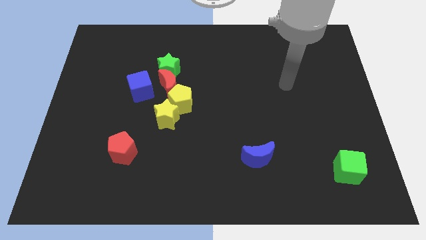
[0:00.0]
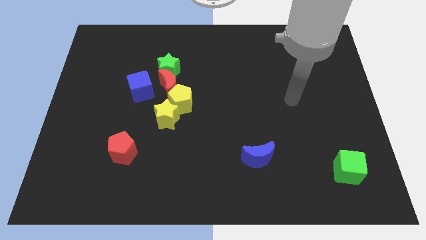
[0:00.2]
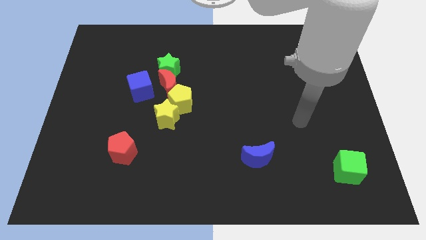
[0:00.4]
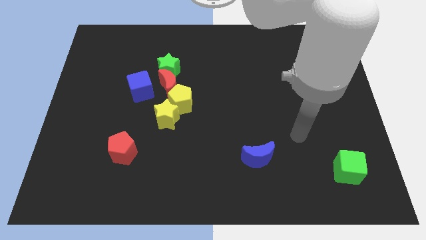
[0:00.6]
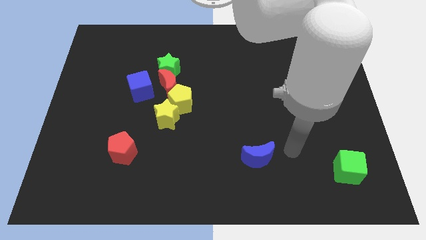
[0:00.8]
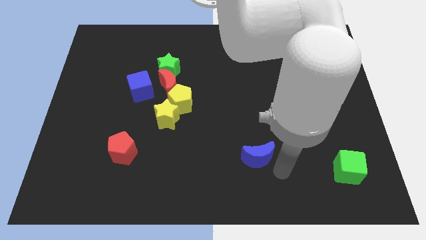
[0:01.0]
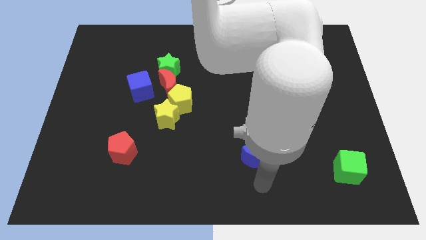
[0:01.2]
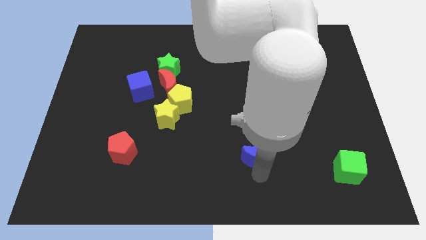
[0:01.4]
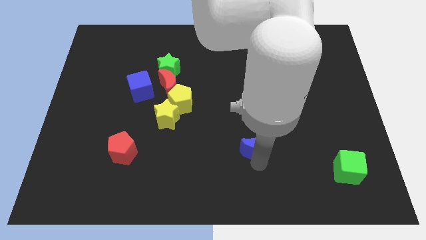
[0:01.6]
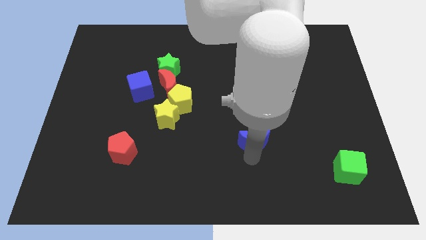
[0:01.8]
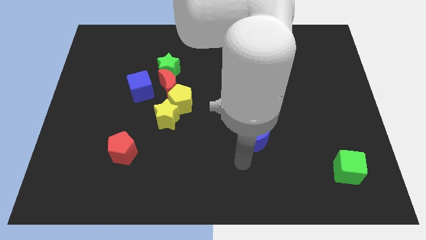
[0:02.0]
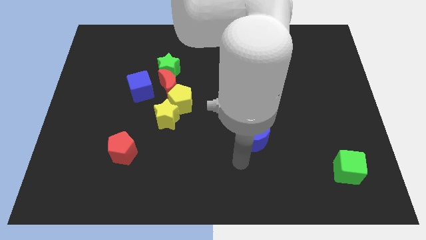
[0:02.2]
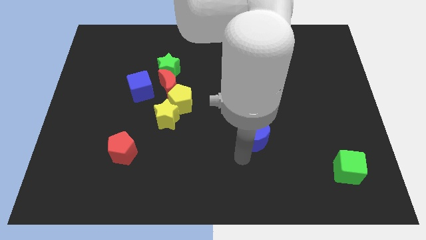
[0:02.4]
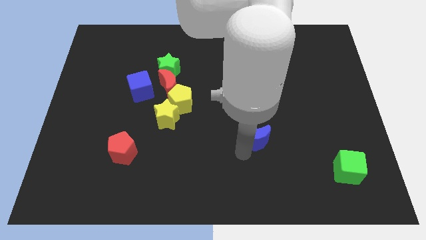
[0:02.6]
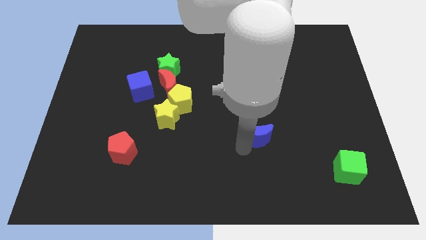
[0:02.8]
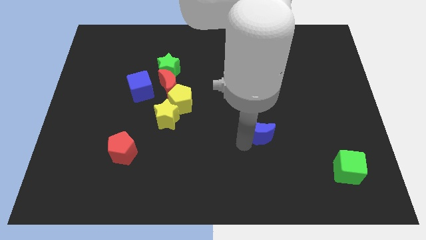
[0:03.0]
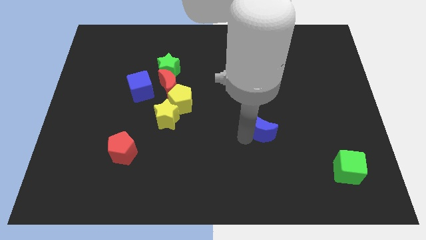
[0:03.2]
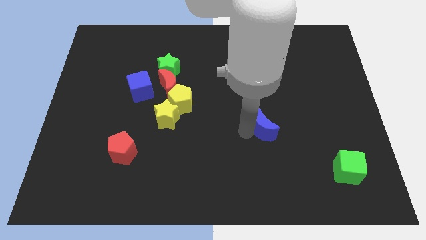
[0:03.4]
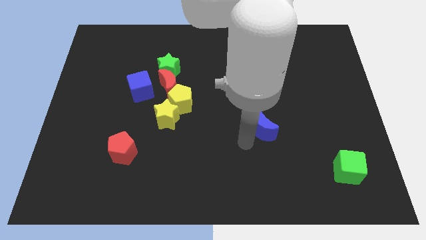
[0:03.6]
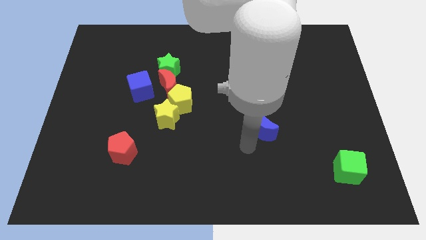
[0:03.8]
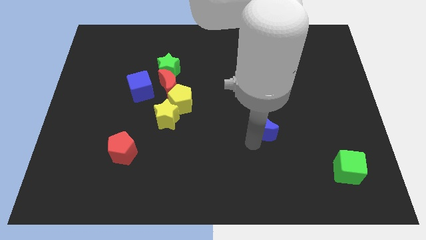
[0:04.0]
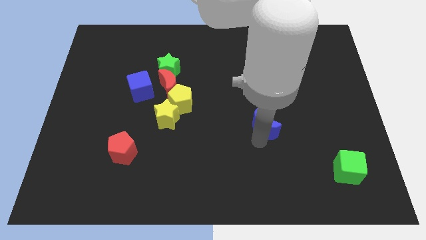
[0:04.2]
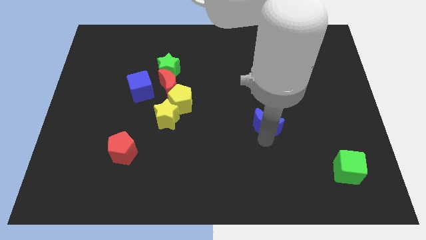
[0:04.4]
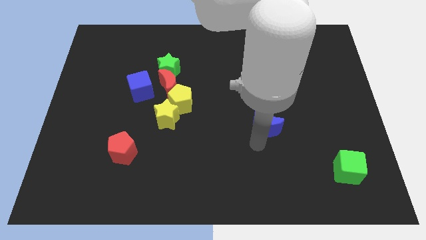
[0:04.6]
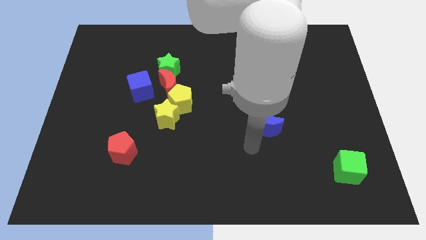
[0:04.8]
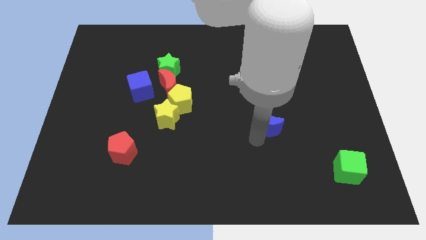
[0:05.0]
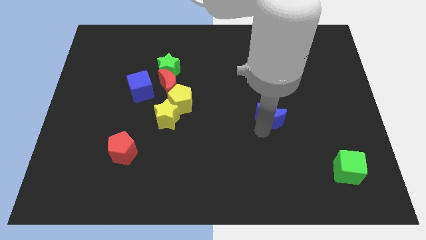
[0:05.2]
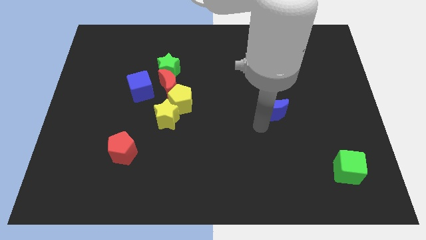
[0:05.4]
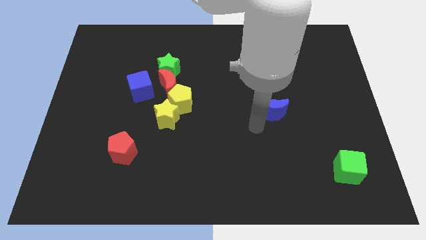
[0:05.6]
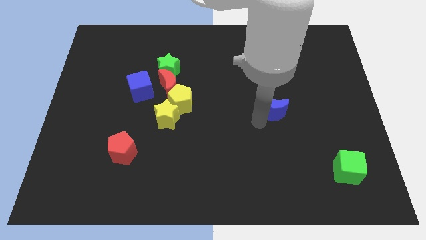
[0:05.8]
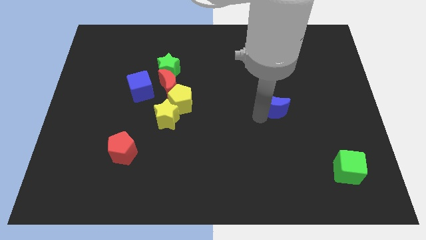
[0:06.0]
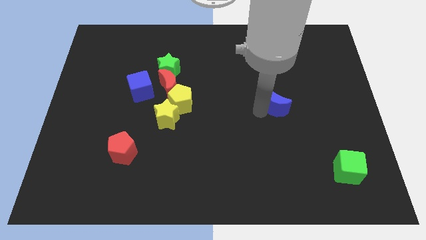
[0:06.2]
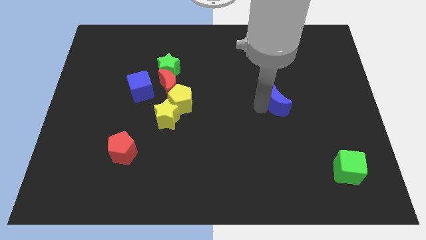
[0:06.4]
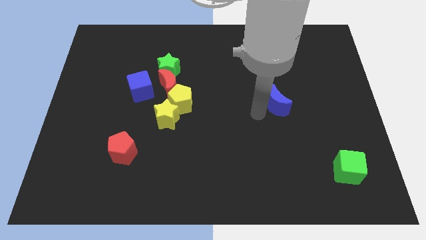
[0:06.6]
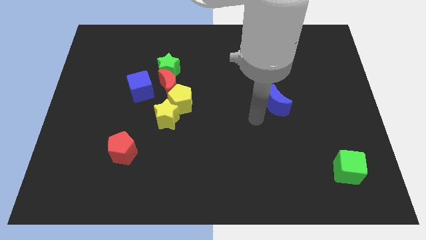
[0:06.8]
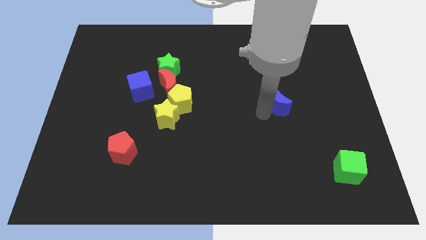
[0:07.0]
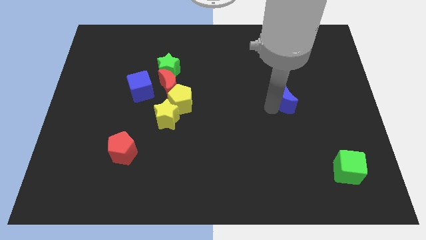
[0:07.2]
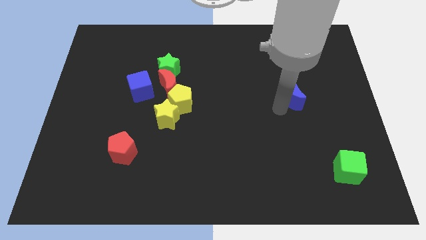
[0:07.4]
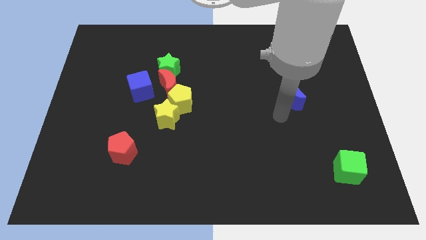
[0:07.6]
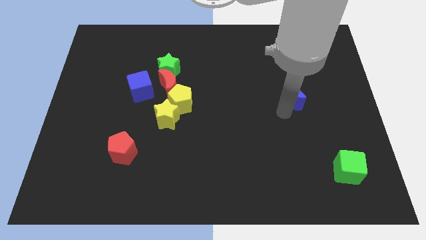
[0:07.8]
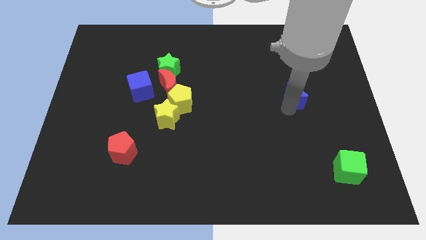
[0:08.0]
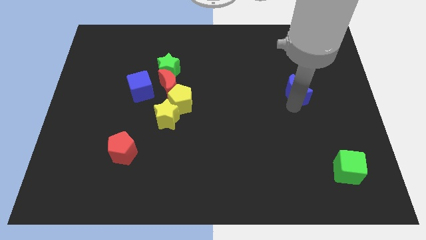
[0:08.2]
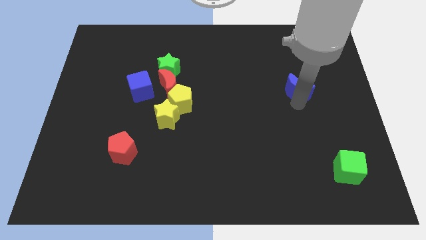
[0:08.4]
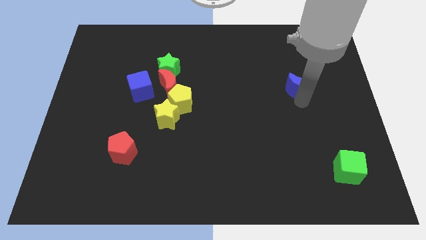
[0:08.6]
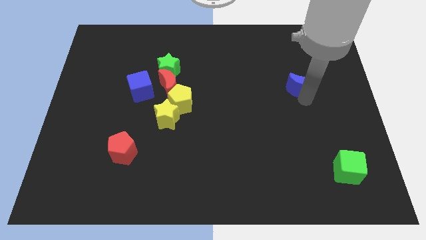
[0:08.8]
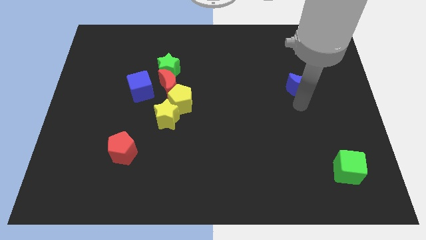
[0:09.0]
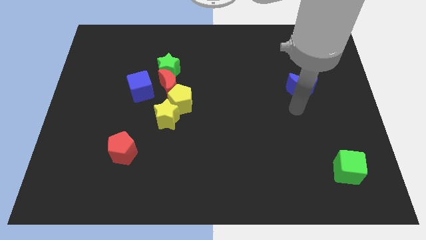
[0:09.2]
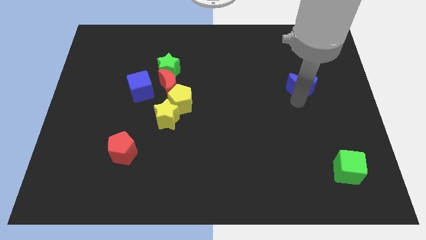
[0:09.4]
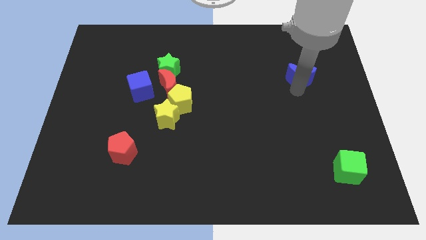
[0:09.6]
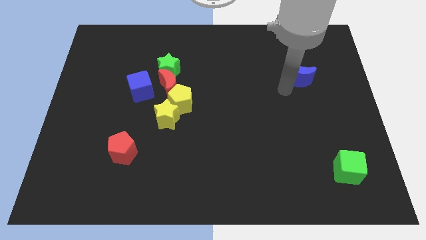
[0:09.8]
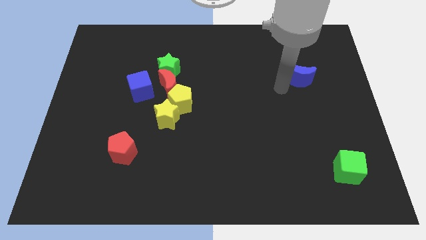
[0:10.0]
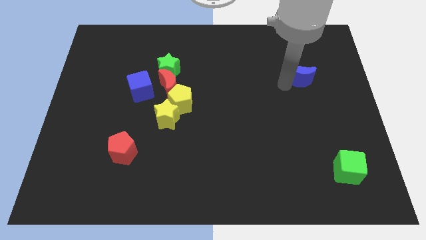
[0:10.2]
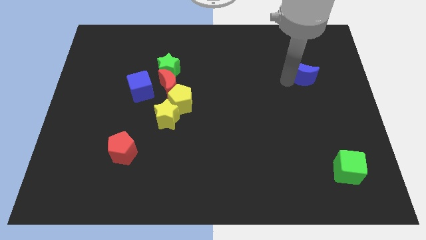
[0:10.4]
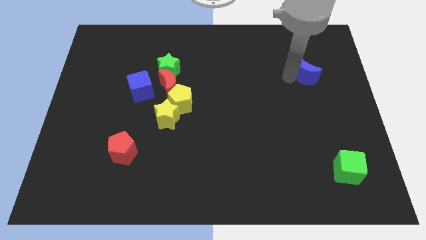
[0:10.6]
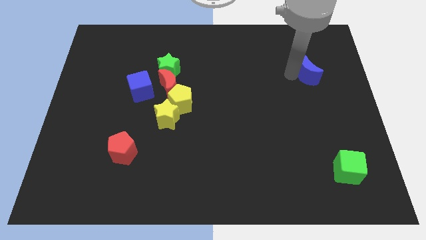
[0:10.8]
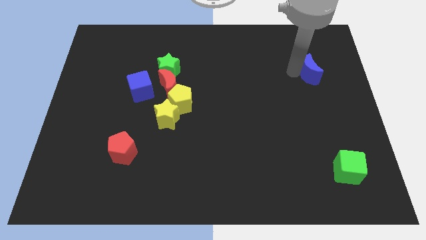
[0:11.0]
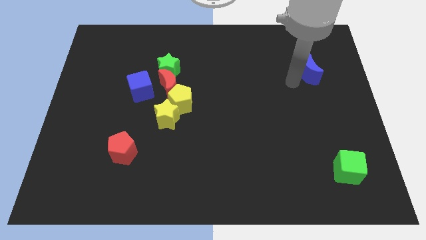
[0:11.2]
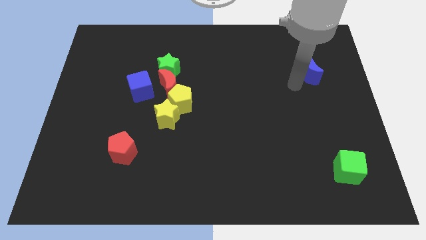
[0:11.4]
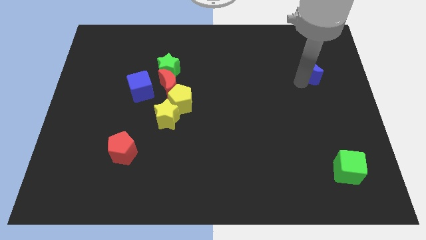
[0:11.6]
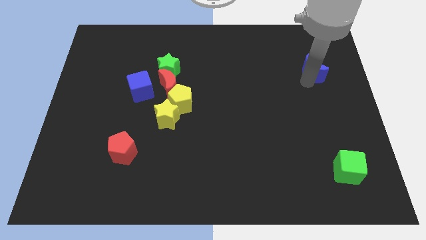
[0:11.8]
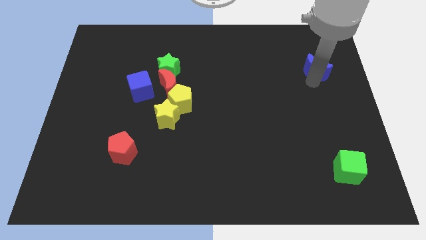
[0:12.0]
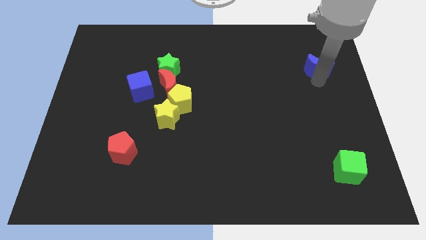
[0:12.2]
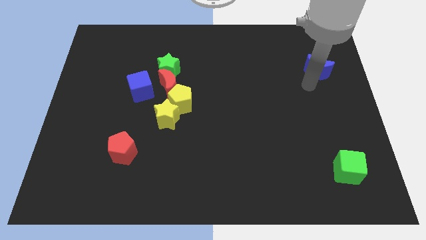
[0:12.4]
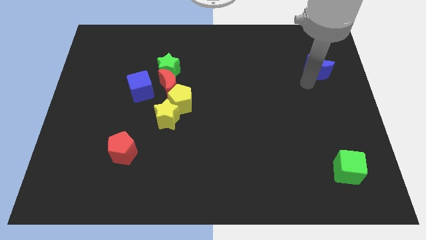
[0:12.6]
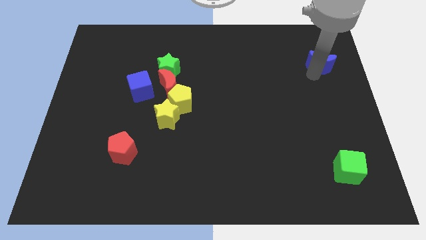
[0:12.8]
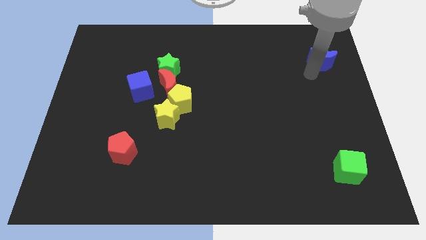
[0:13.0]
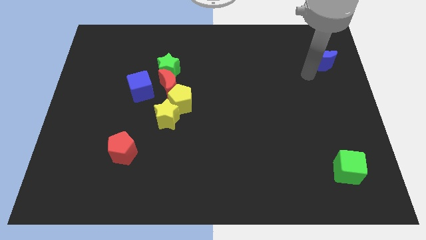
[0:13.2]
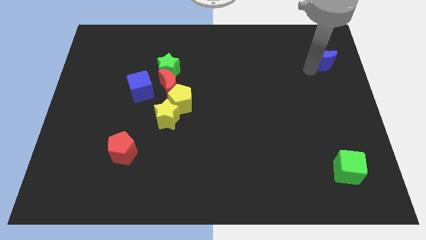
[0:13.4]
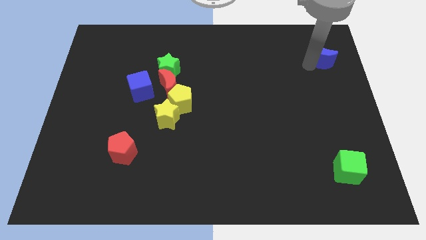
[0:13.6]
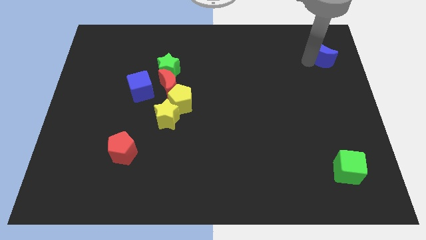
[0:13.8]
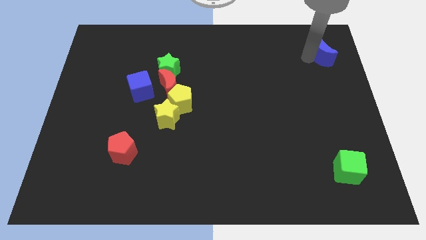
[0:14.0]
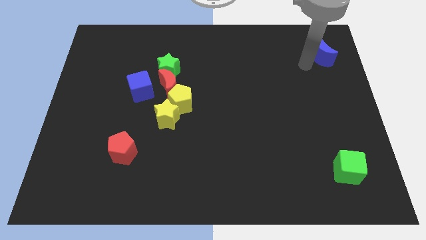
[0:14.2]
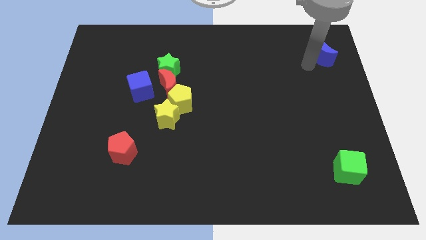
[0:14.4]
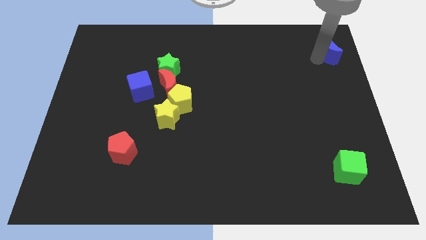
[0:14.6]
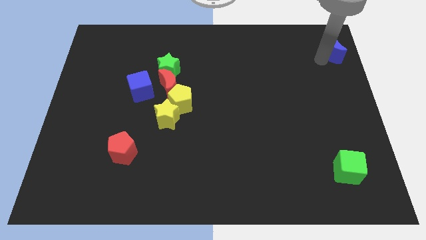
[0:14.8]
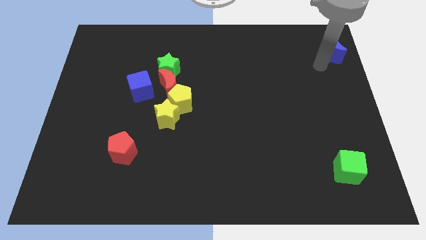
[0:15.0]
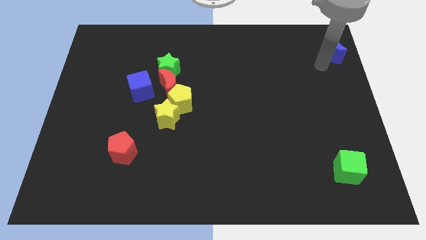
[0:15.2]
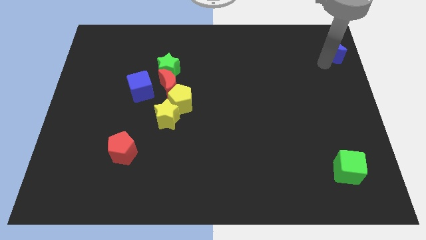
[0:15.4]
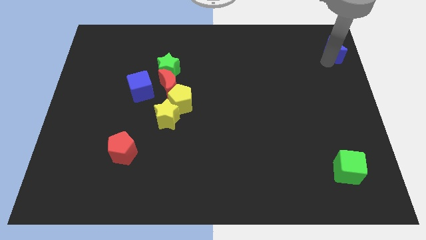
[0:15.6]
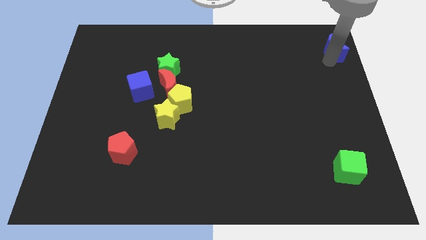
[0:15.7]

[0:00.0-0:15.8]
put the blue moon to the upper right corner
